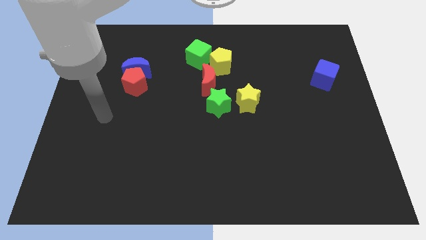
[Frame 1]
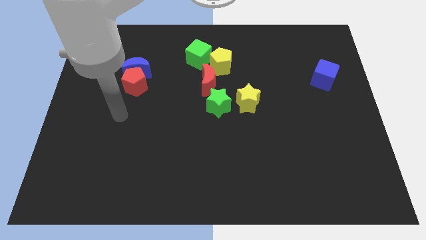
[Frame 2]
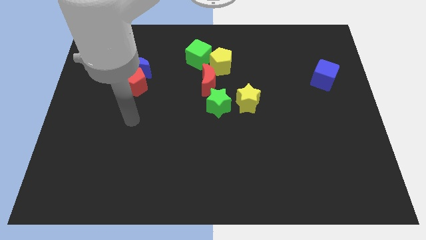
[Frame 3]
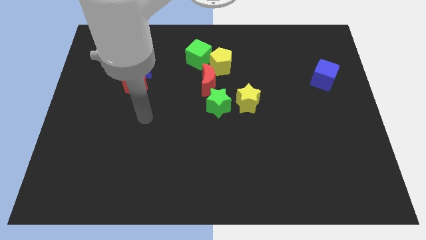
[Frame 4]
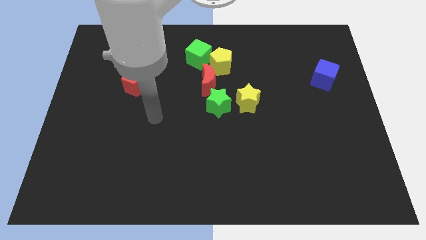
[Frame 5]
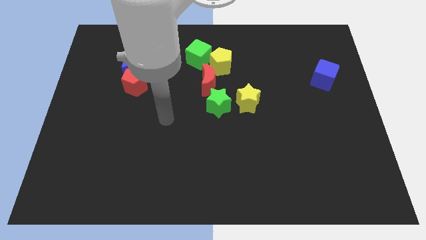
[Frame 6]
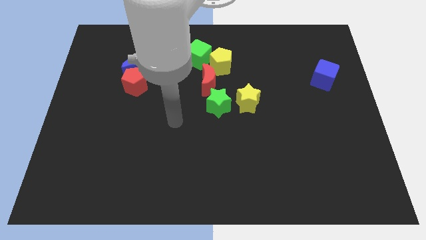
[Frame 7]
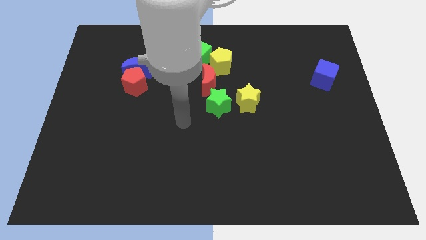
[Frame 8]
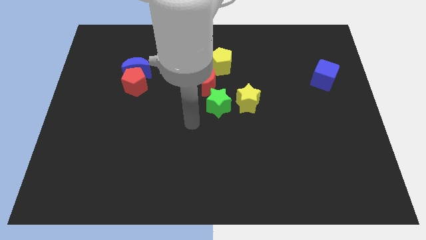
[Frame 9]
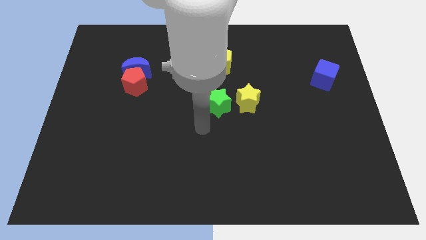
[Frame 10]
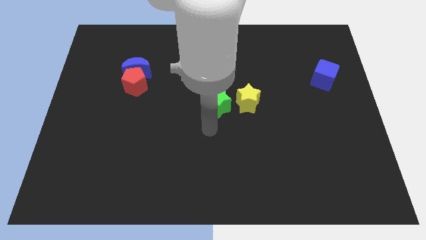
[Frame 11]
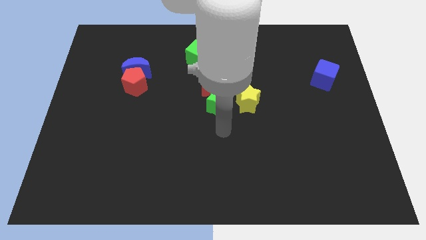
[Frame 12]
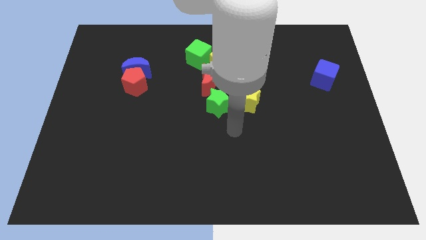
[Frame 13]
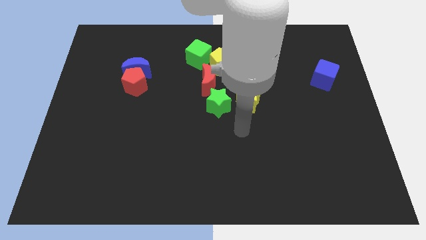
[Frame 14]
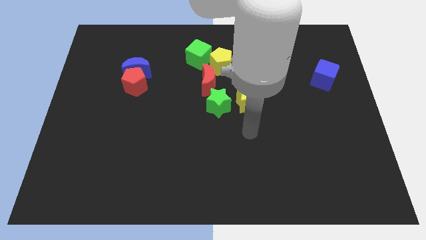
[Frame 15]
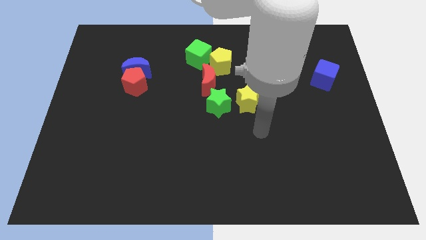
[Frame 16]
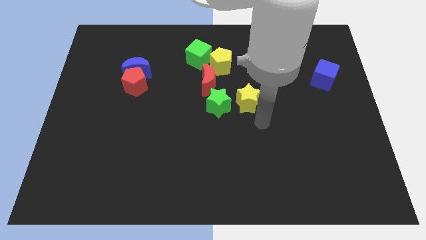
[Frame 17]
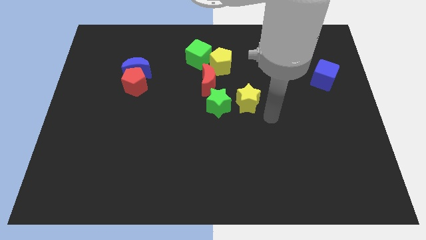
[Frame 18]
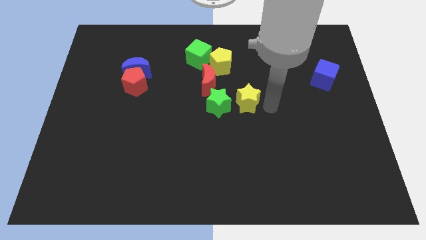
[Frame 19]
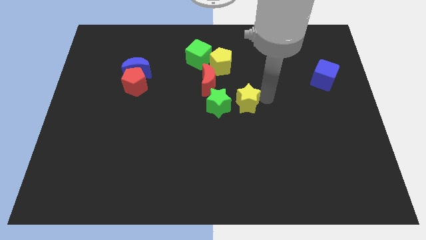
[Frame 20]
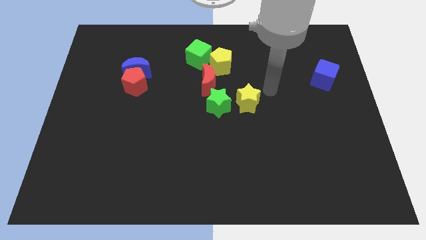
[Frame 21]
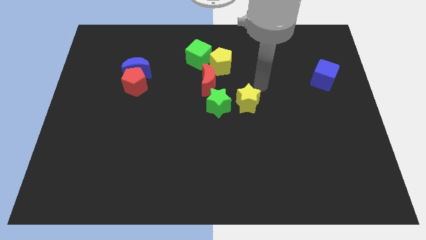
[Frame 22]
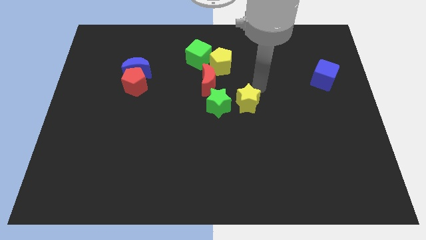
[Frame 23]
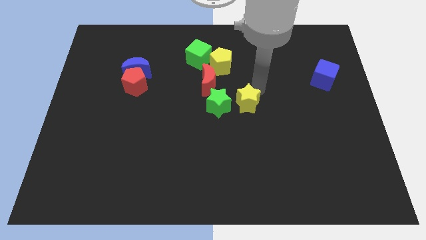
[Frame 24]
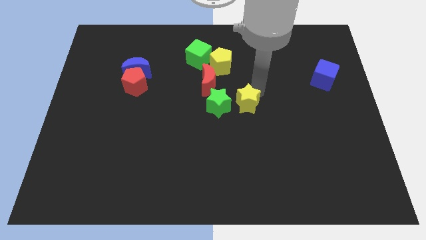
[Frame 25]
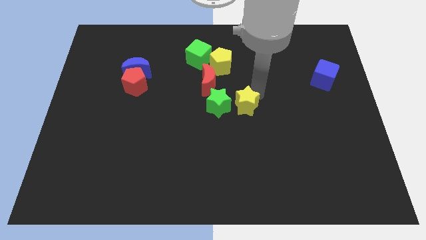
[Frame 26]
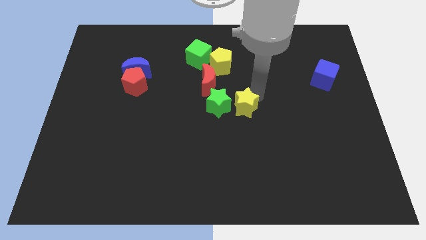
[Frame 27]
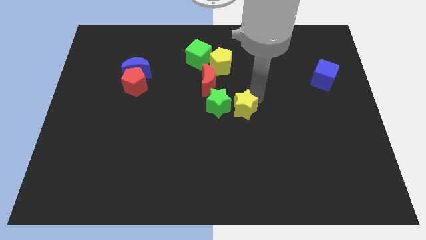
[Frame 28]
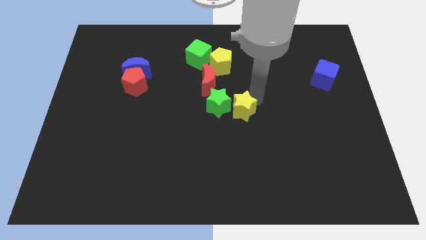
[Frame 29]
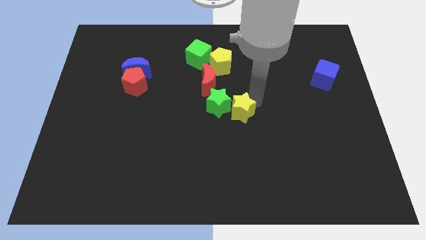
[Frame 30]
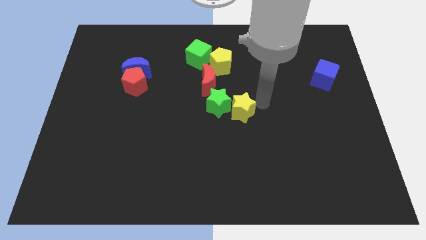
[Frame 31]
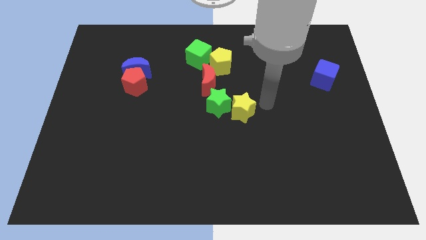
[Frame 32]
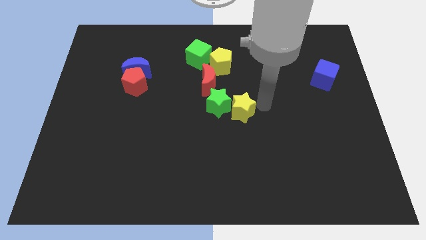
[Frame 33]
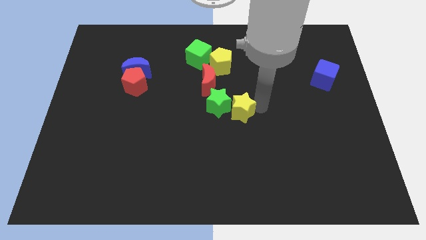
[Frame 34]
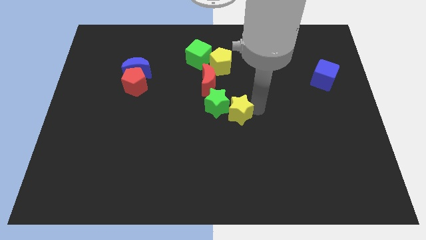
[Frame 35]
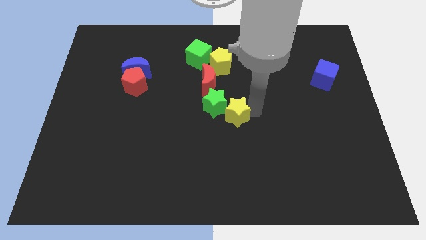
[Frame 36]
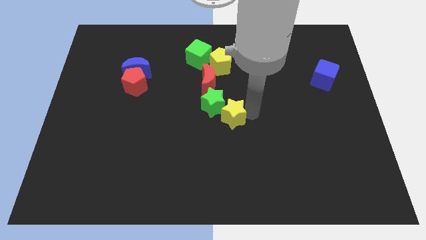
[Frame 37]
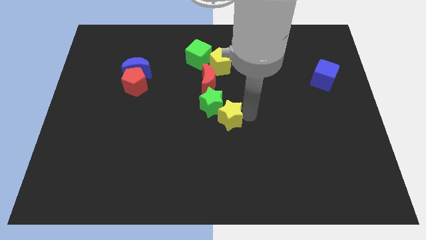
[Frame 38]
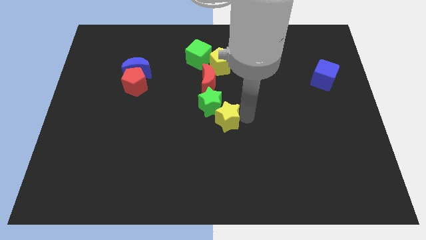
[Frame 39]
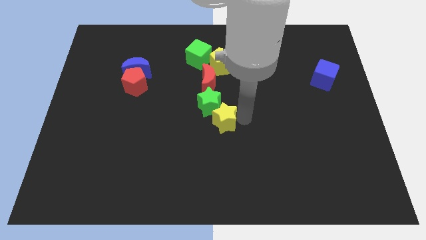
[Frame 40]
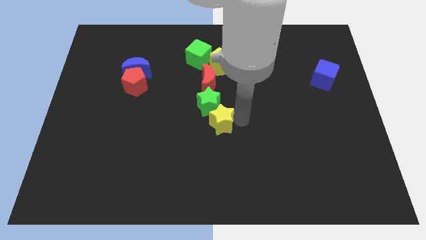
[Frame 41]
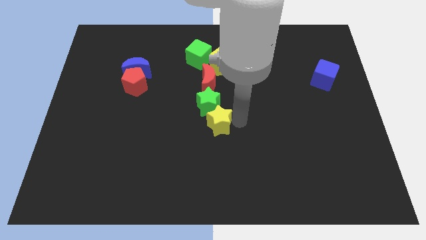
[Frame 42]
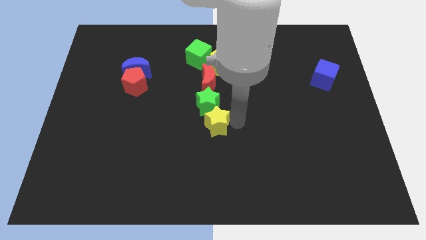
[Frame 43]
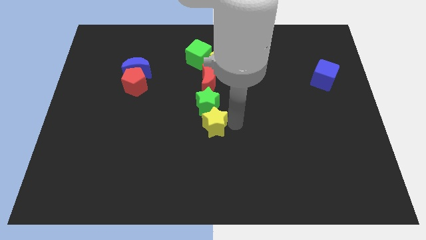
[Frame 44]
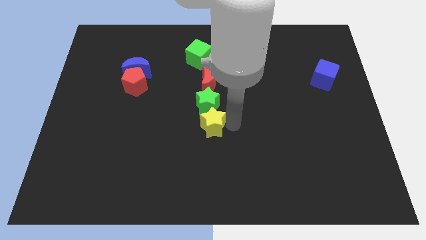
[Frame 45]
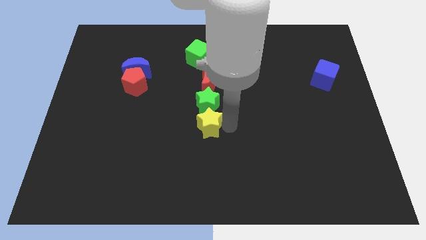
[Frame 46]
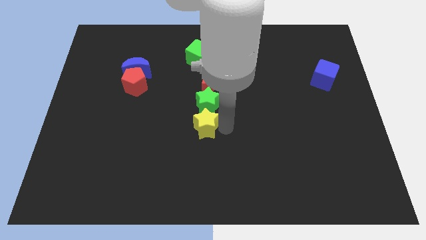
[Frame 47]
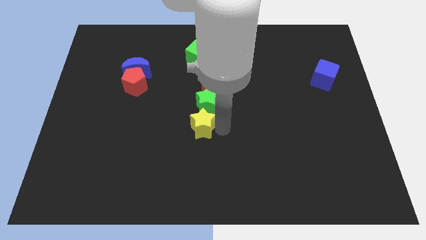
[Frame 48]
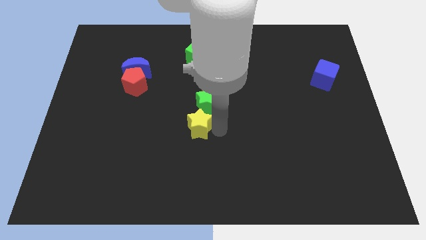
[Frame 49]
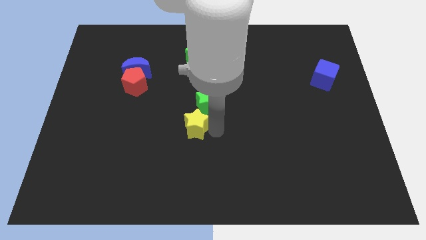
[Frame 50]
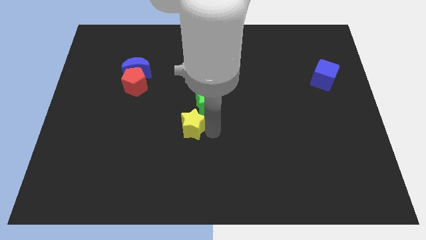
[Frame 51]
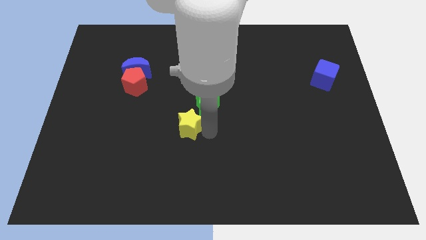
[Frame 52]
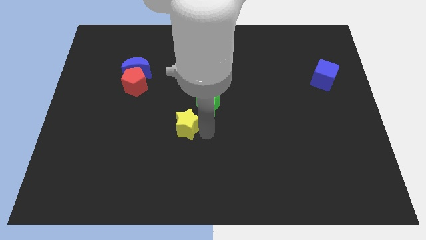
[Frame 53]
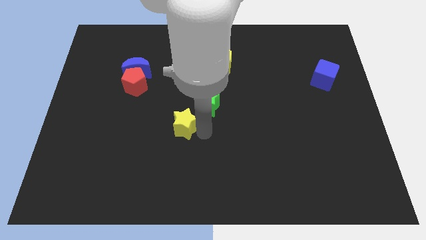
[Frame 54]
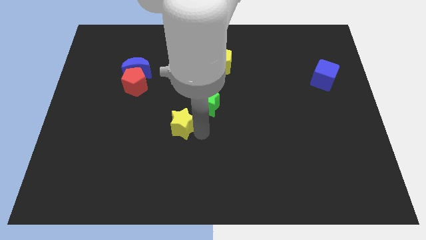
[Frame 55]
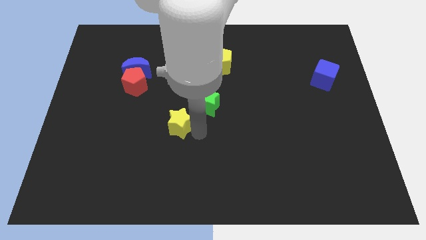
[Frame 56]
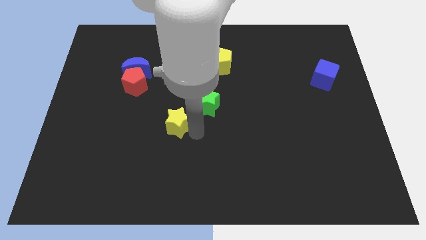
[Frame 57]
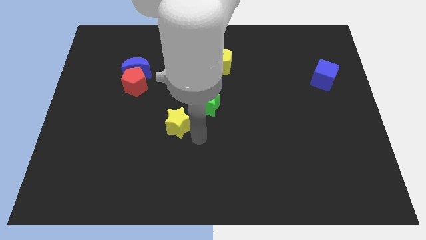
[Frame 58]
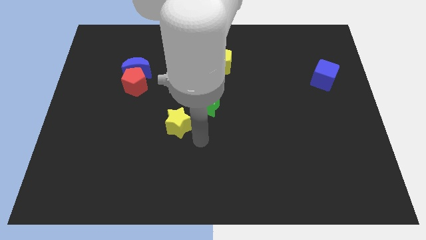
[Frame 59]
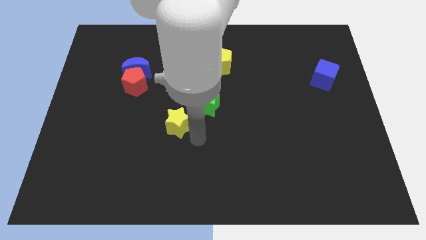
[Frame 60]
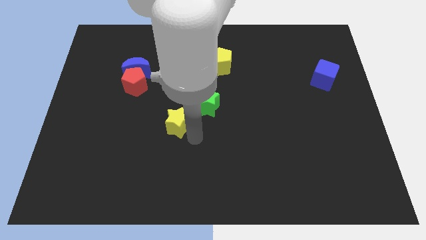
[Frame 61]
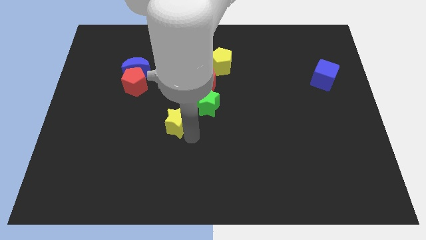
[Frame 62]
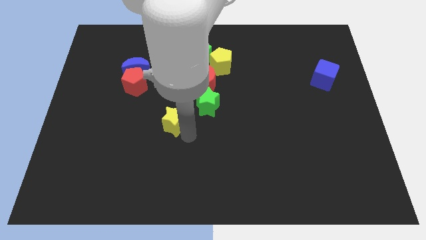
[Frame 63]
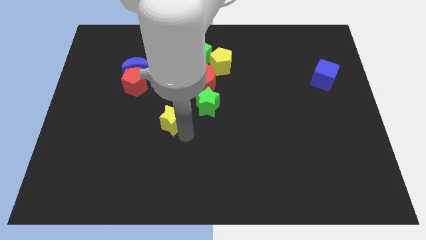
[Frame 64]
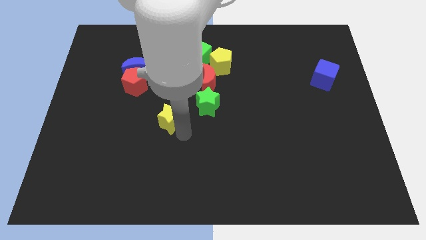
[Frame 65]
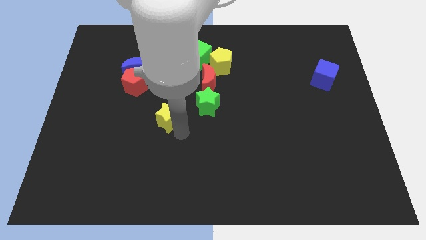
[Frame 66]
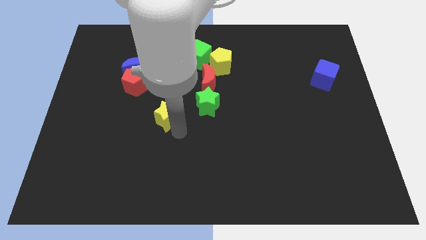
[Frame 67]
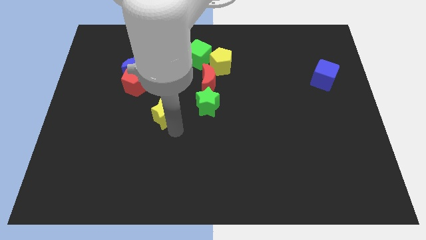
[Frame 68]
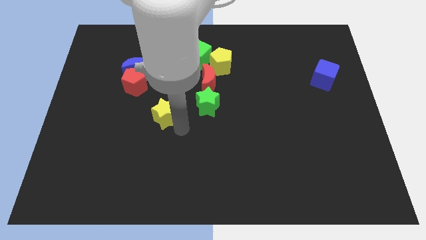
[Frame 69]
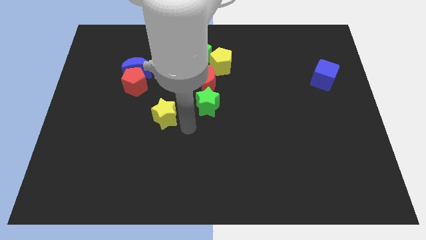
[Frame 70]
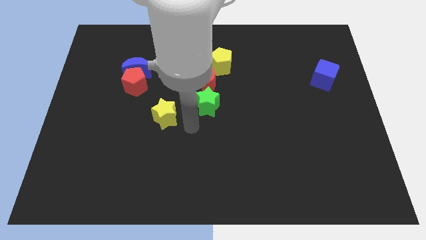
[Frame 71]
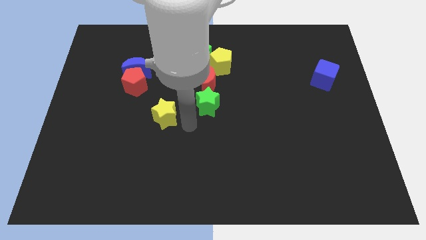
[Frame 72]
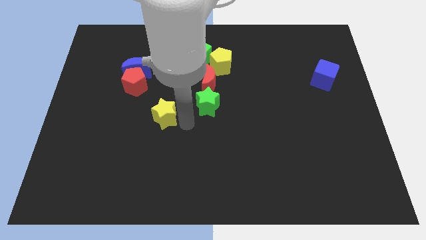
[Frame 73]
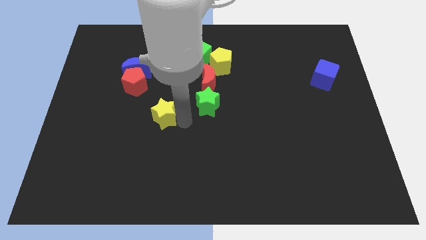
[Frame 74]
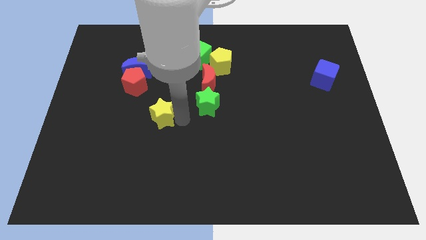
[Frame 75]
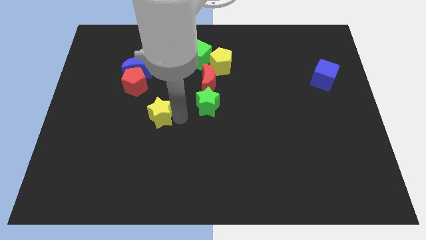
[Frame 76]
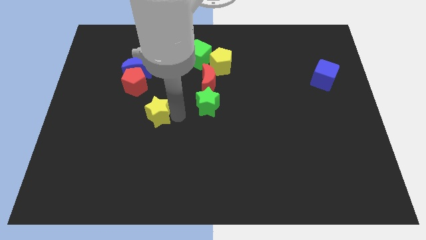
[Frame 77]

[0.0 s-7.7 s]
push the yellow star left

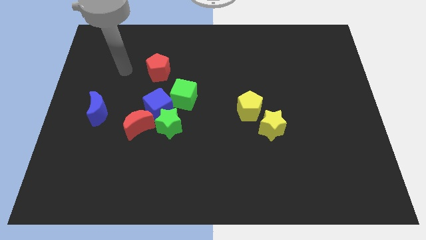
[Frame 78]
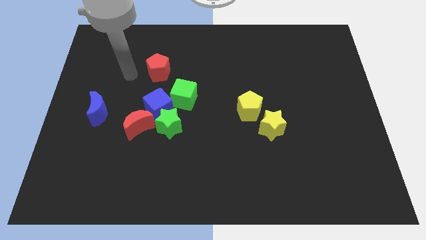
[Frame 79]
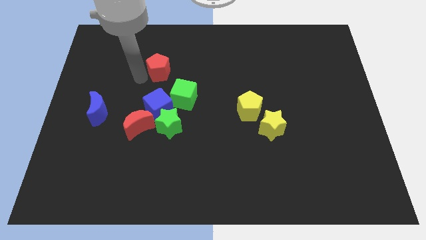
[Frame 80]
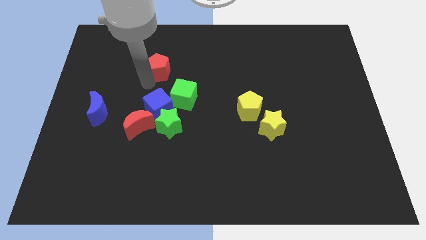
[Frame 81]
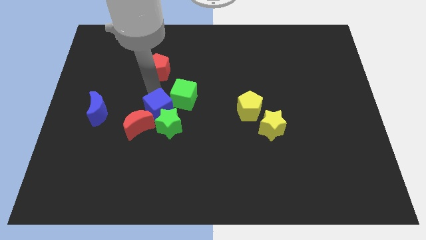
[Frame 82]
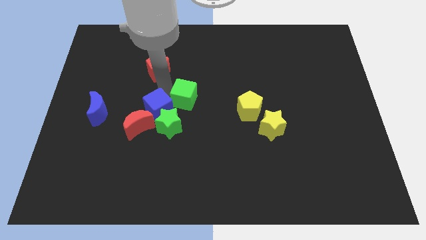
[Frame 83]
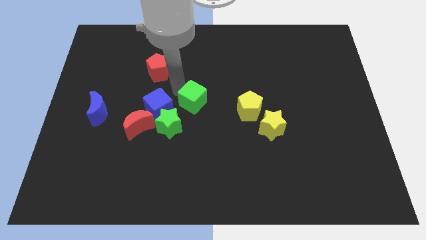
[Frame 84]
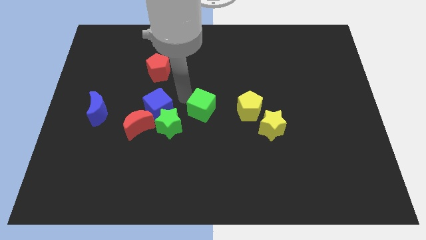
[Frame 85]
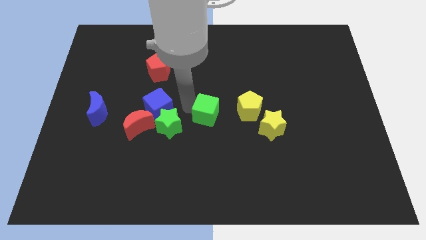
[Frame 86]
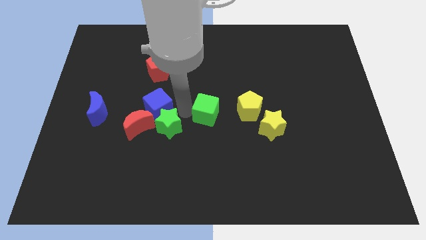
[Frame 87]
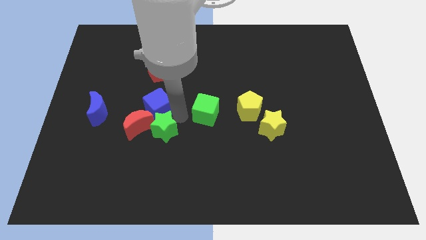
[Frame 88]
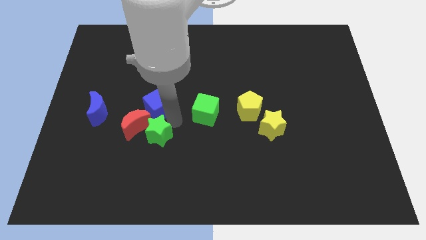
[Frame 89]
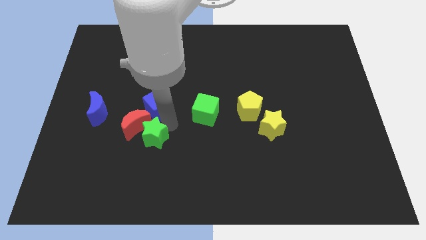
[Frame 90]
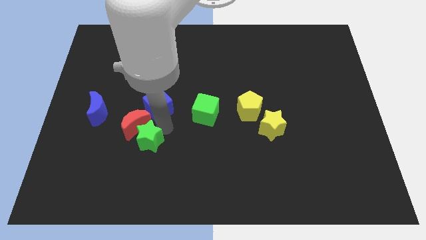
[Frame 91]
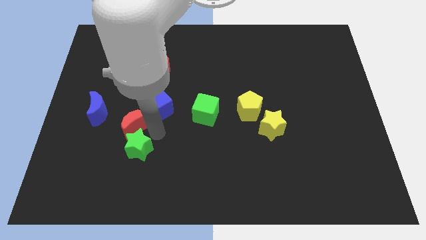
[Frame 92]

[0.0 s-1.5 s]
push the green star downwards and then to the left somewhat
